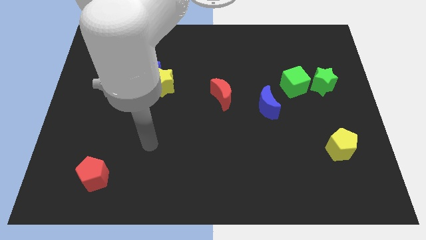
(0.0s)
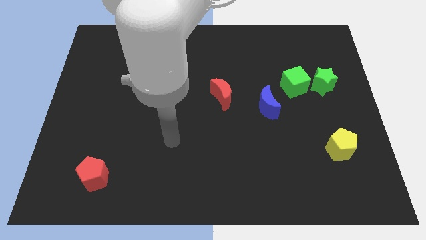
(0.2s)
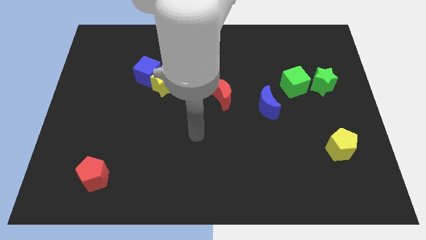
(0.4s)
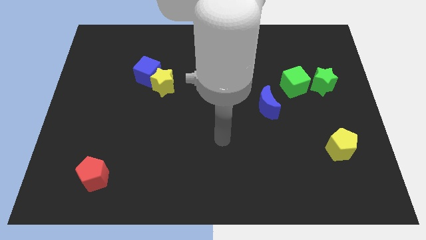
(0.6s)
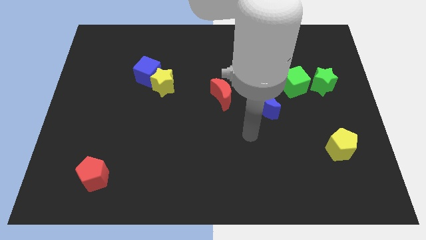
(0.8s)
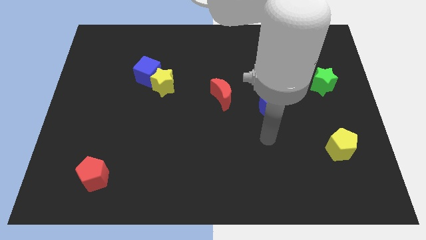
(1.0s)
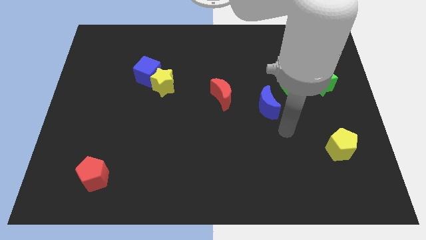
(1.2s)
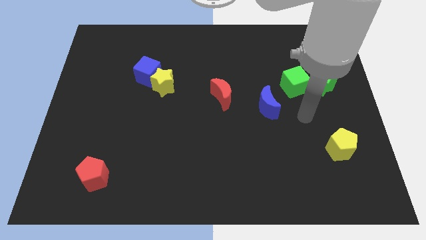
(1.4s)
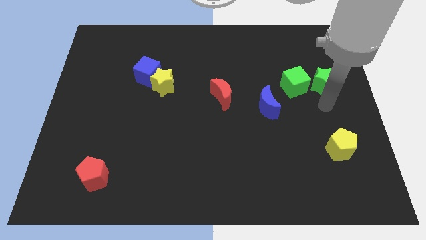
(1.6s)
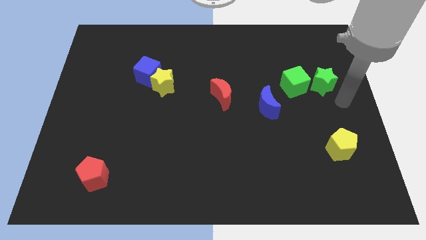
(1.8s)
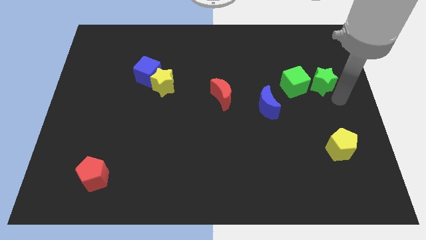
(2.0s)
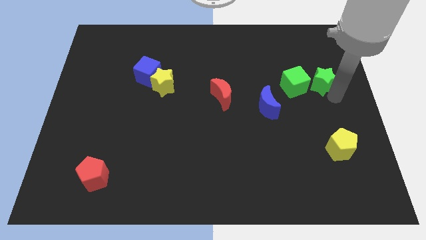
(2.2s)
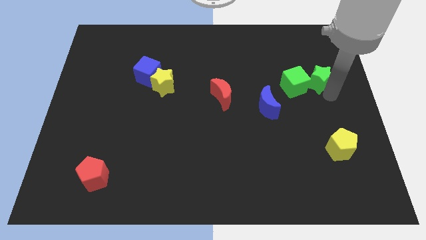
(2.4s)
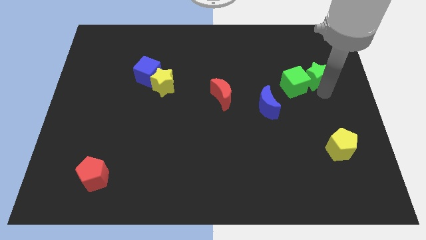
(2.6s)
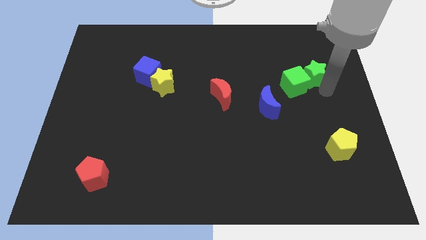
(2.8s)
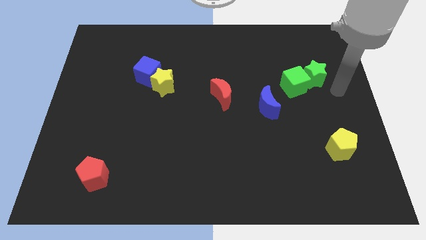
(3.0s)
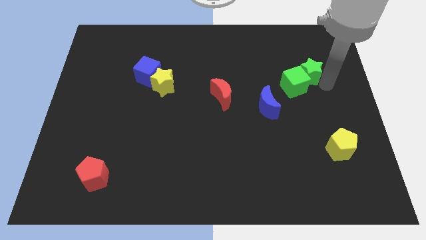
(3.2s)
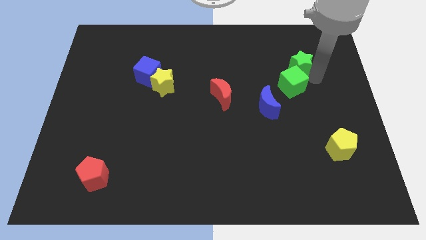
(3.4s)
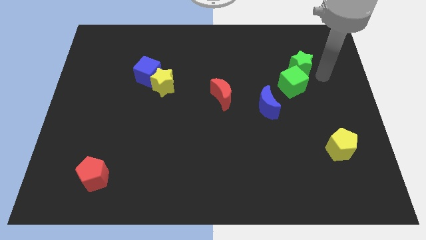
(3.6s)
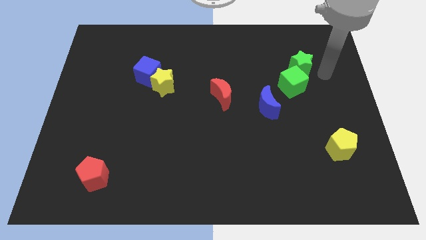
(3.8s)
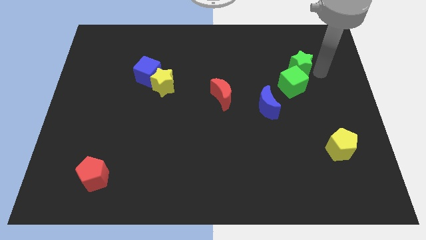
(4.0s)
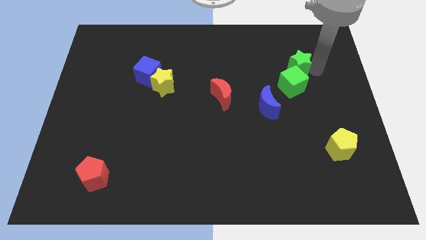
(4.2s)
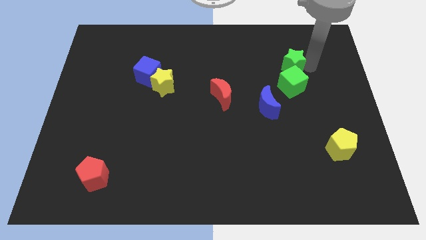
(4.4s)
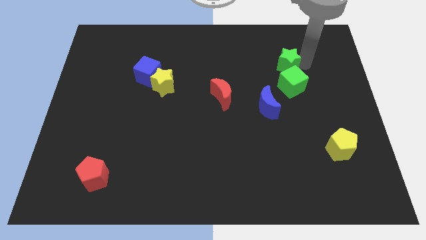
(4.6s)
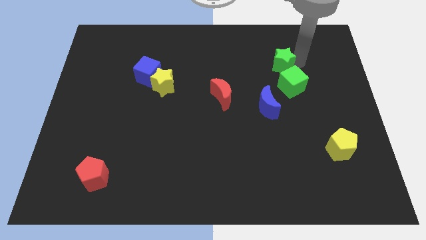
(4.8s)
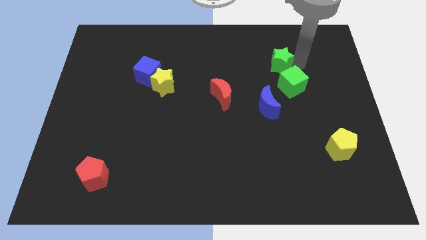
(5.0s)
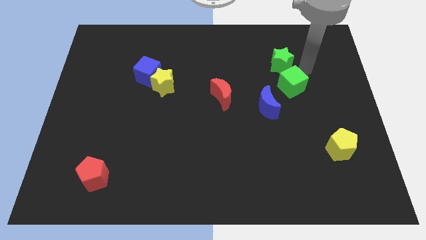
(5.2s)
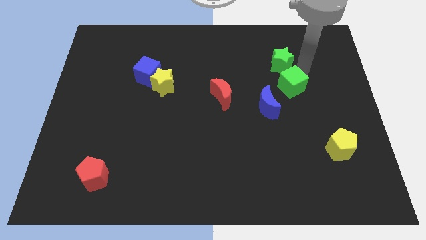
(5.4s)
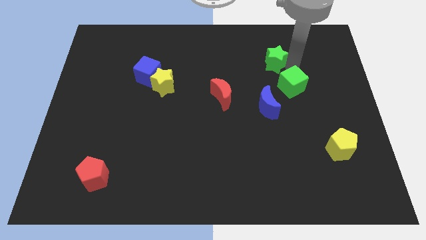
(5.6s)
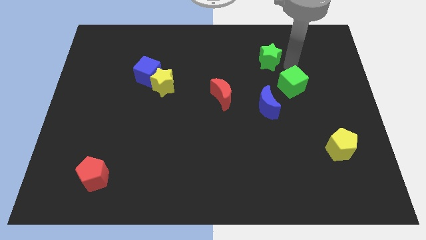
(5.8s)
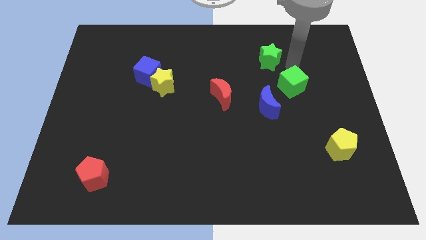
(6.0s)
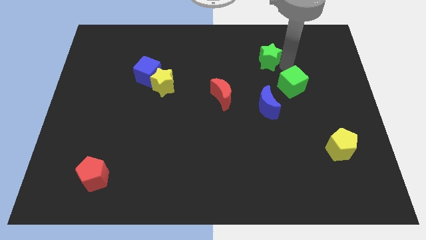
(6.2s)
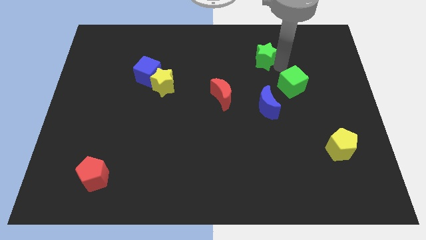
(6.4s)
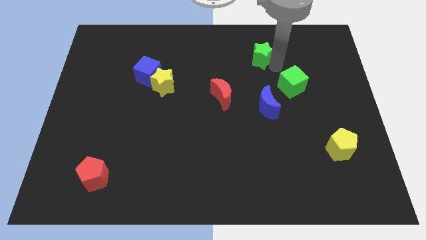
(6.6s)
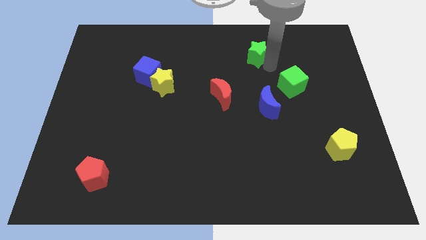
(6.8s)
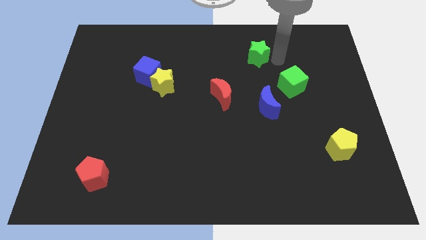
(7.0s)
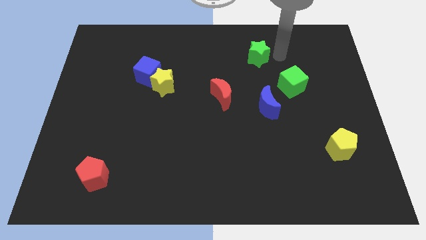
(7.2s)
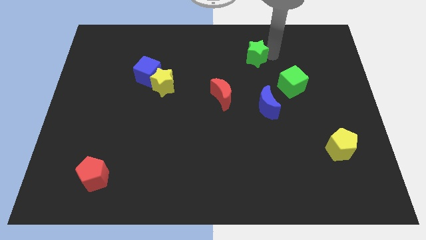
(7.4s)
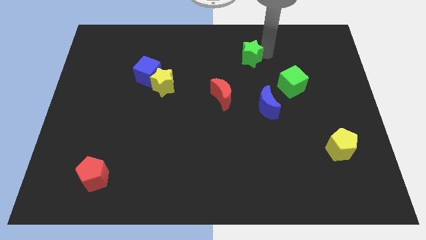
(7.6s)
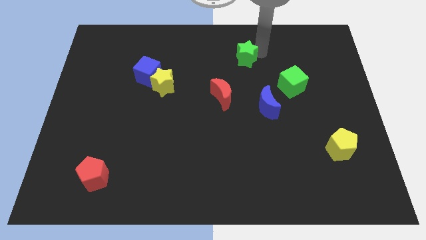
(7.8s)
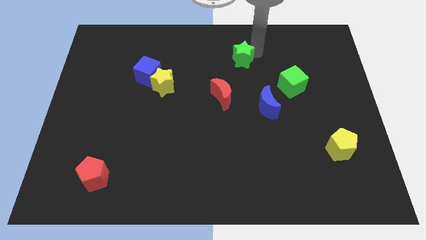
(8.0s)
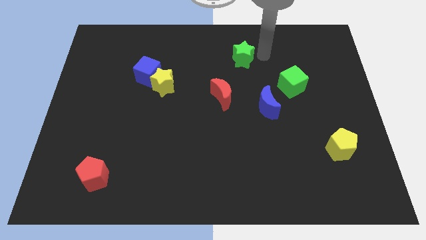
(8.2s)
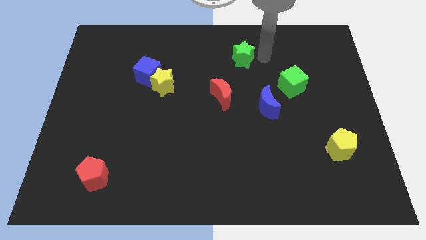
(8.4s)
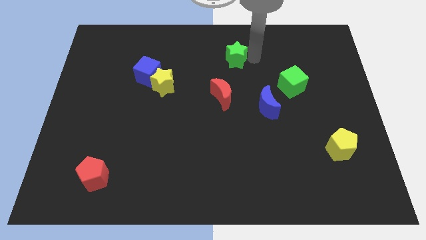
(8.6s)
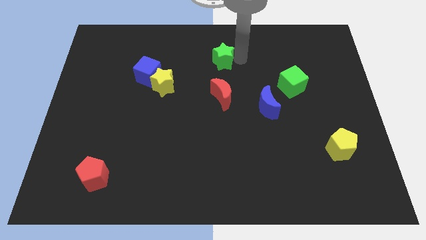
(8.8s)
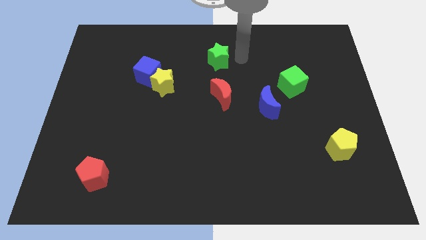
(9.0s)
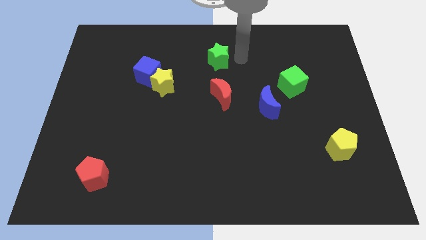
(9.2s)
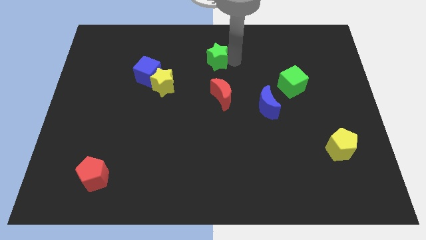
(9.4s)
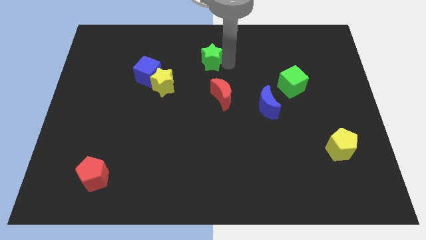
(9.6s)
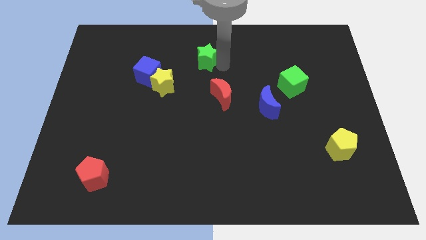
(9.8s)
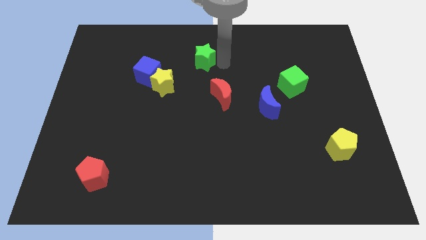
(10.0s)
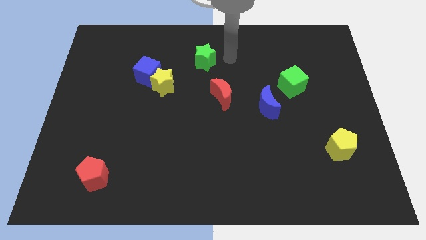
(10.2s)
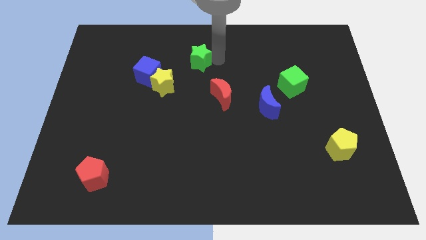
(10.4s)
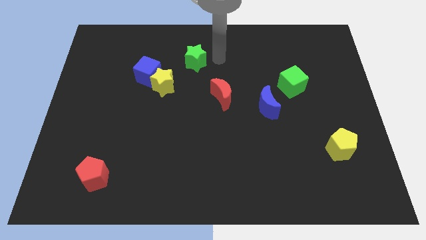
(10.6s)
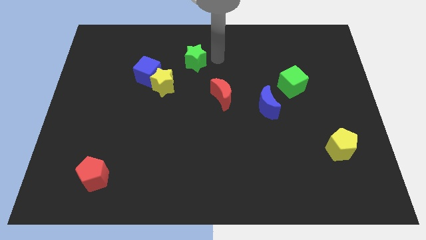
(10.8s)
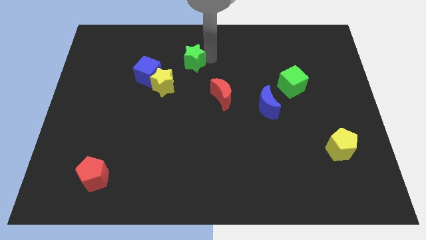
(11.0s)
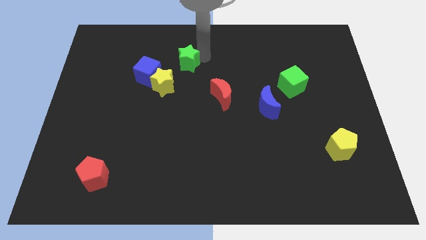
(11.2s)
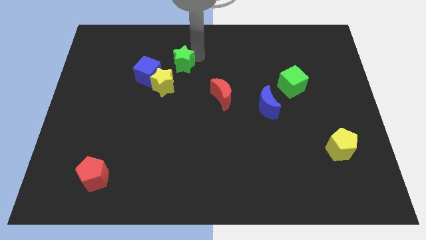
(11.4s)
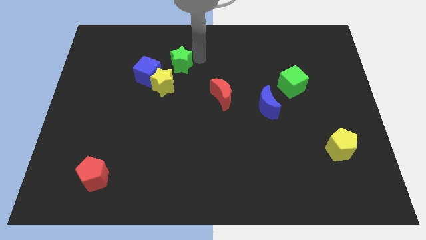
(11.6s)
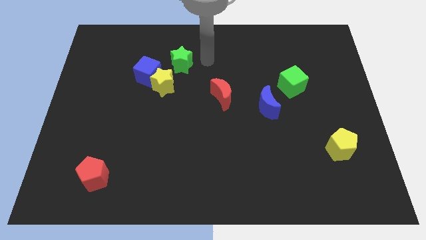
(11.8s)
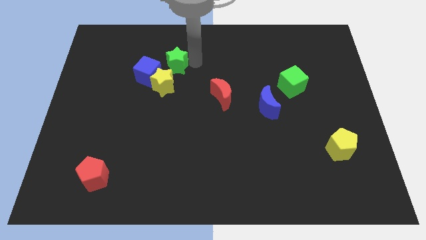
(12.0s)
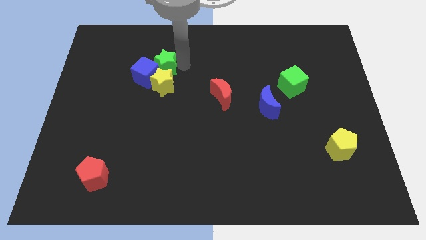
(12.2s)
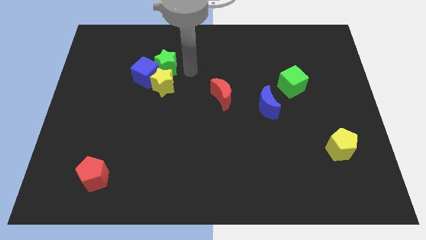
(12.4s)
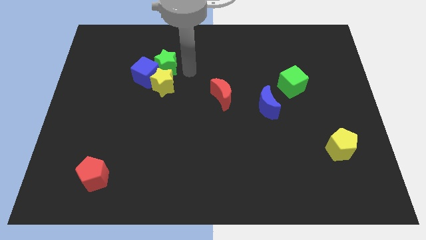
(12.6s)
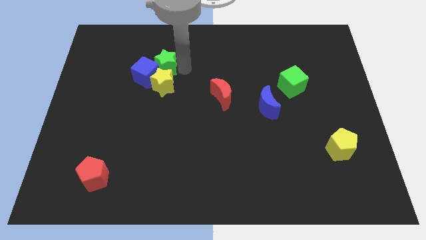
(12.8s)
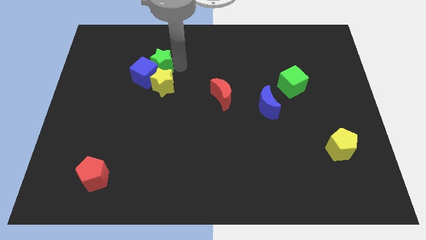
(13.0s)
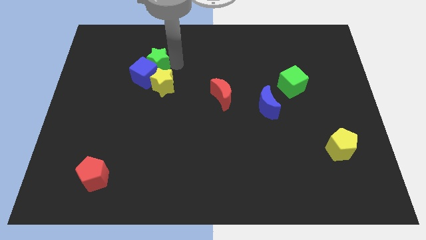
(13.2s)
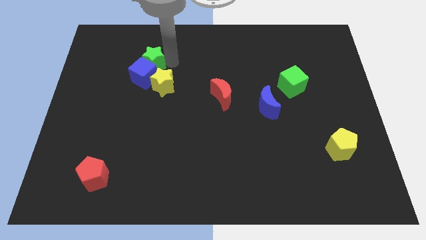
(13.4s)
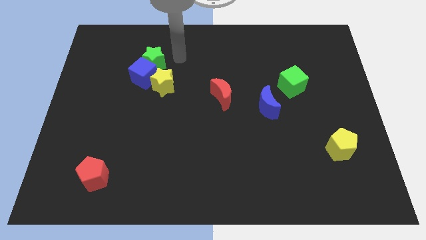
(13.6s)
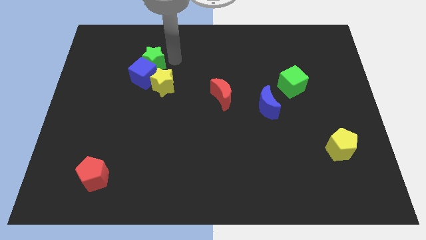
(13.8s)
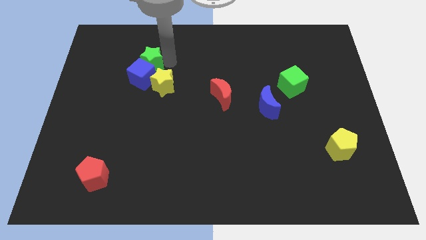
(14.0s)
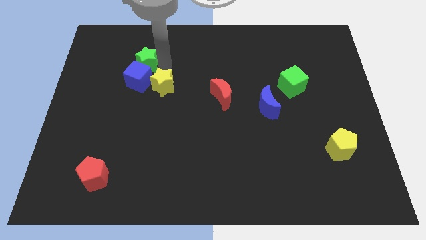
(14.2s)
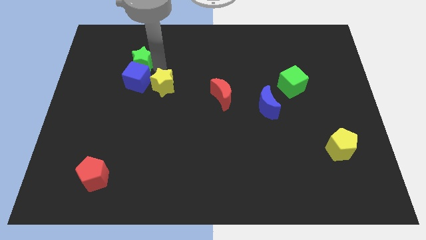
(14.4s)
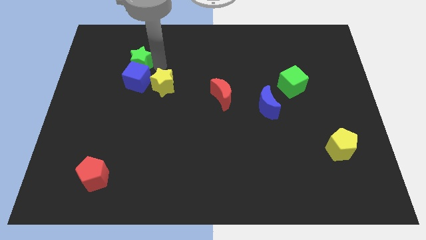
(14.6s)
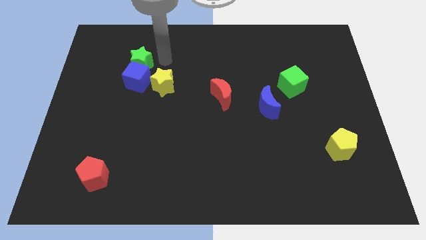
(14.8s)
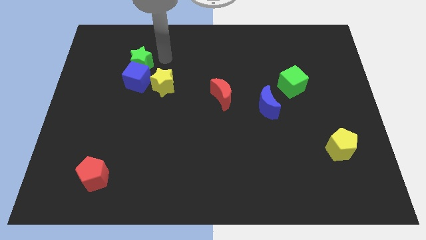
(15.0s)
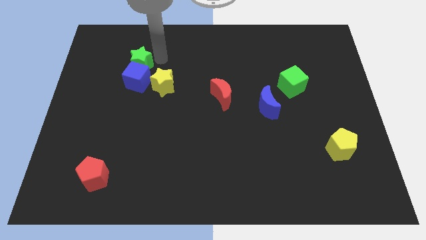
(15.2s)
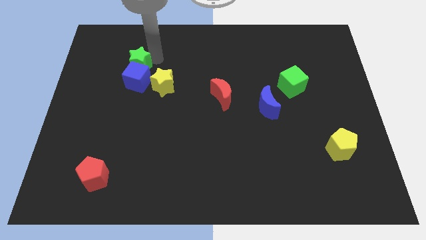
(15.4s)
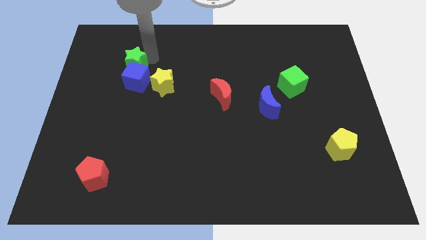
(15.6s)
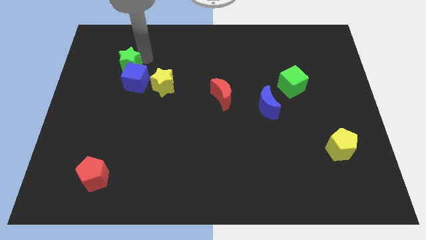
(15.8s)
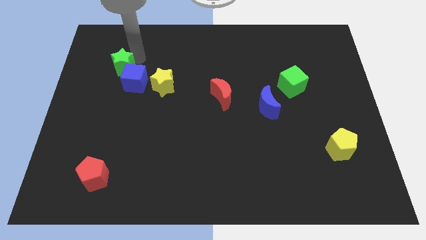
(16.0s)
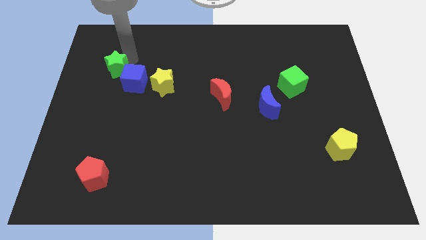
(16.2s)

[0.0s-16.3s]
push the green star to the left of the blue cube
